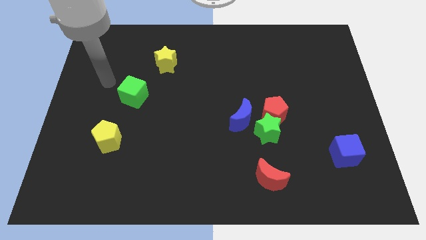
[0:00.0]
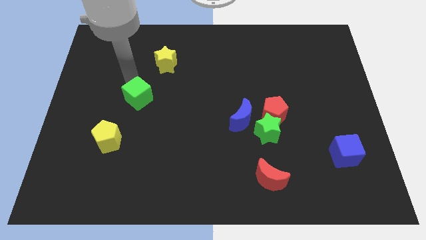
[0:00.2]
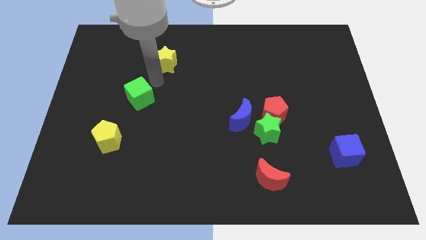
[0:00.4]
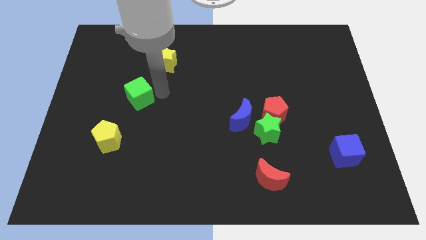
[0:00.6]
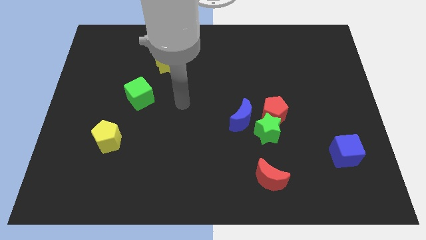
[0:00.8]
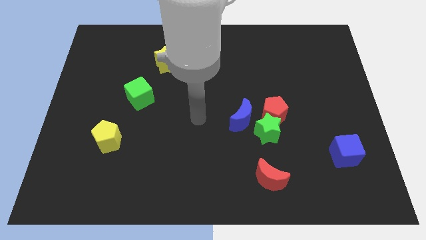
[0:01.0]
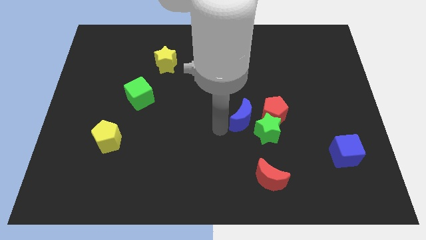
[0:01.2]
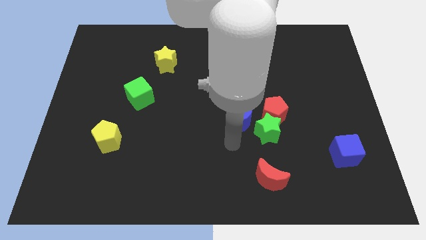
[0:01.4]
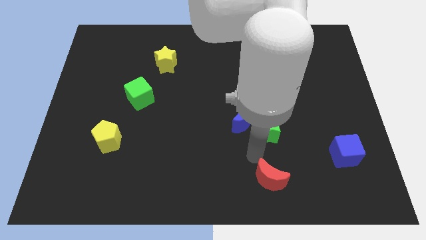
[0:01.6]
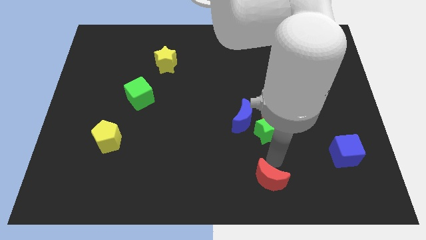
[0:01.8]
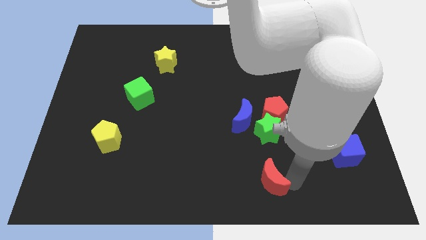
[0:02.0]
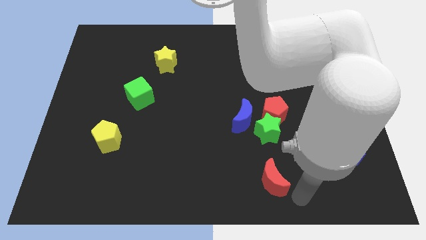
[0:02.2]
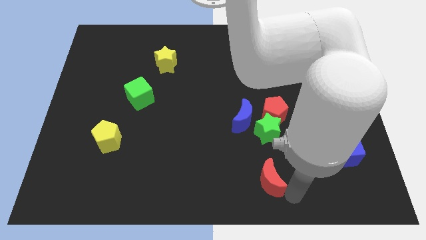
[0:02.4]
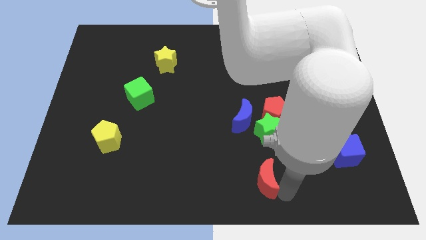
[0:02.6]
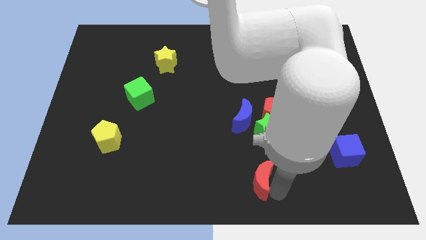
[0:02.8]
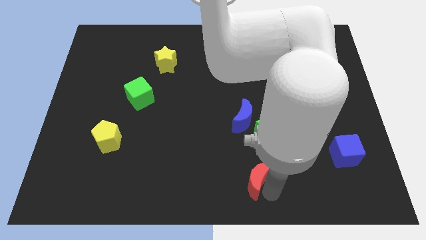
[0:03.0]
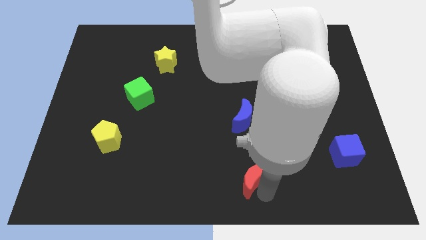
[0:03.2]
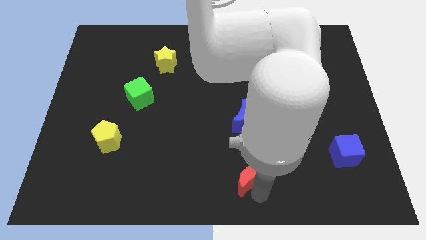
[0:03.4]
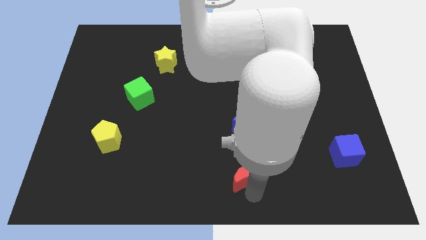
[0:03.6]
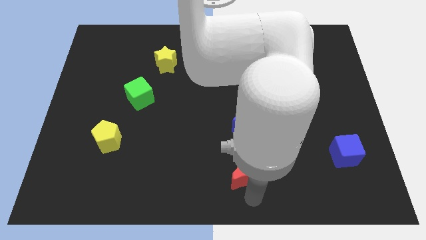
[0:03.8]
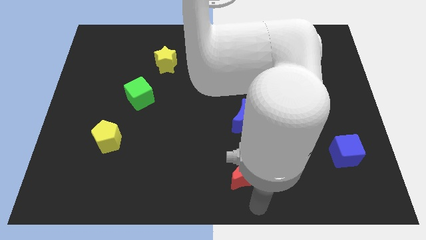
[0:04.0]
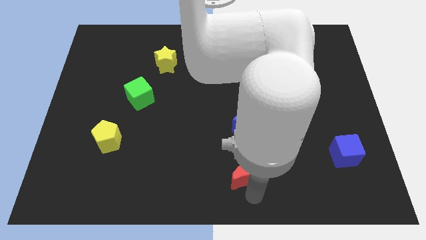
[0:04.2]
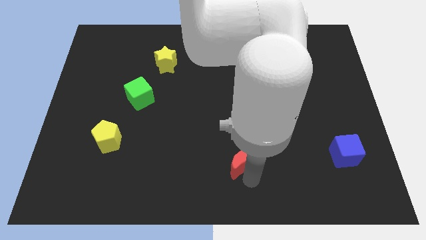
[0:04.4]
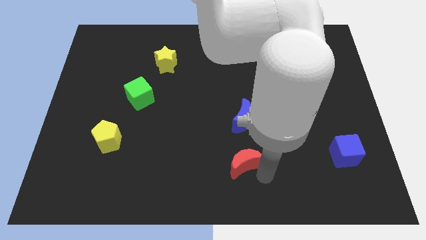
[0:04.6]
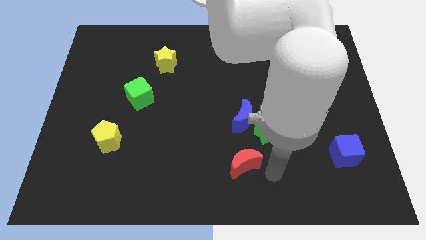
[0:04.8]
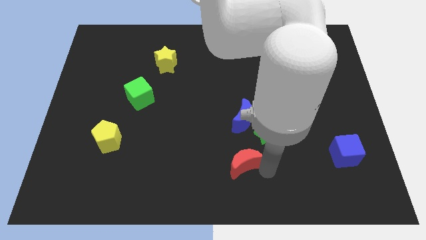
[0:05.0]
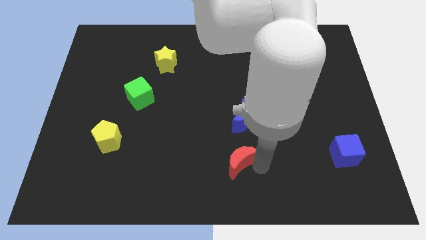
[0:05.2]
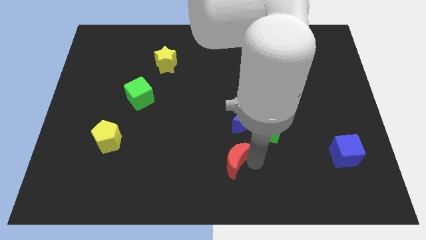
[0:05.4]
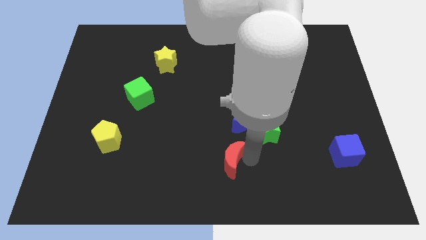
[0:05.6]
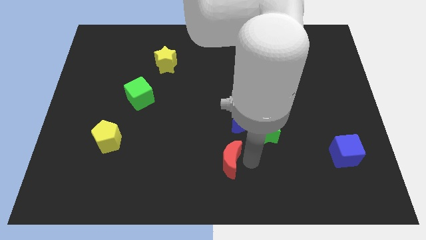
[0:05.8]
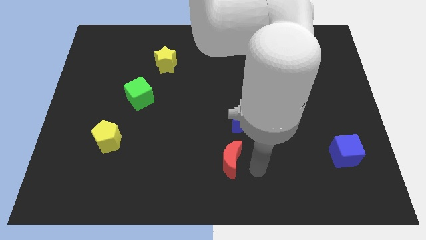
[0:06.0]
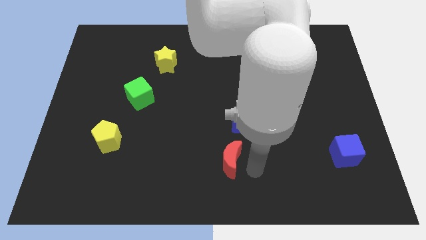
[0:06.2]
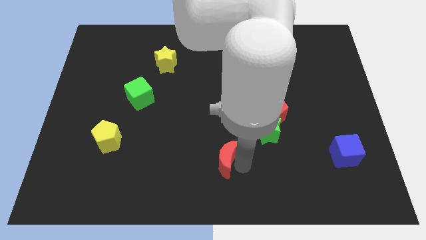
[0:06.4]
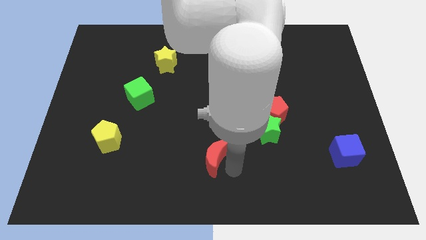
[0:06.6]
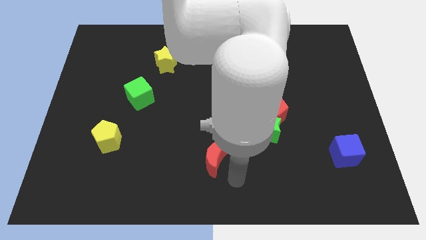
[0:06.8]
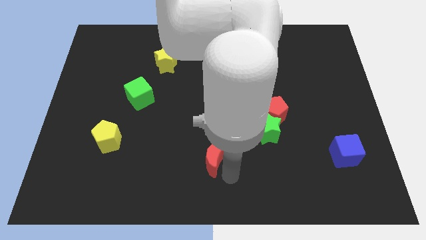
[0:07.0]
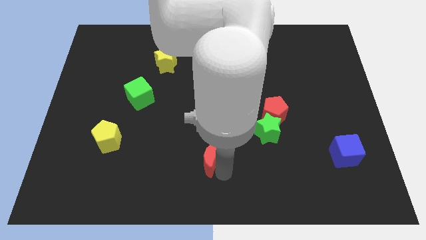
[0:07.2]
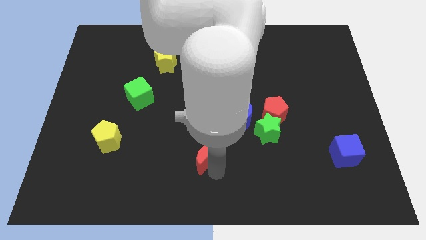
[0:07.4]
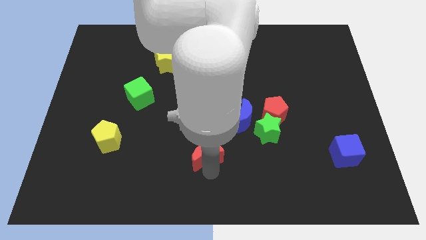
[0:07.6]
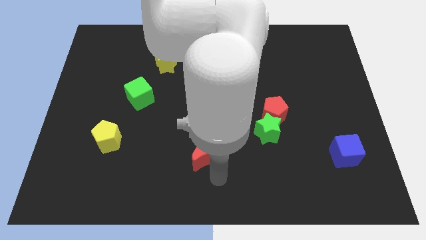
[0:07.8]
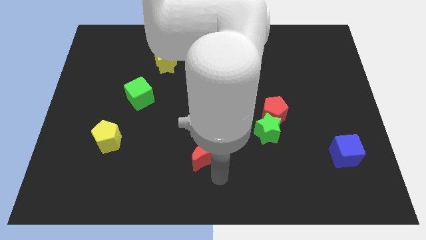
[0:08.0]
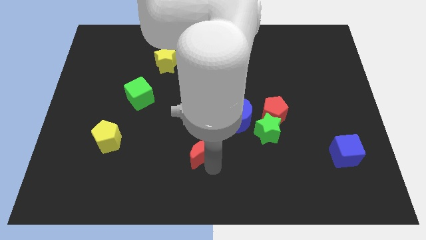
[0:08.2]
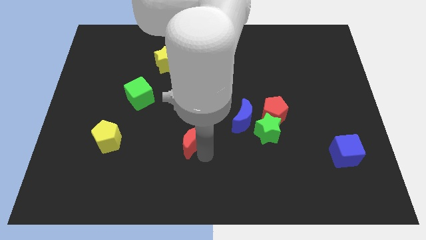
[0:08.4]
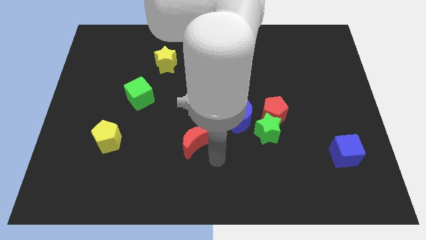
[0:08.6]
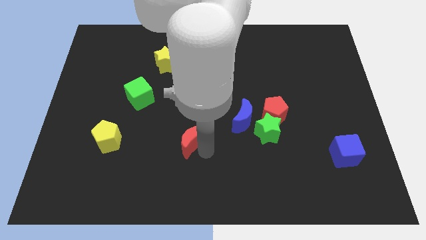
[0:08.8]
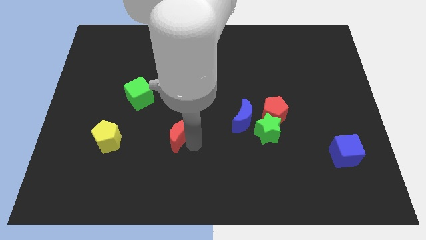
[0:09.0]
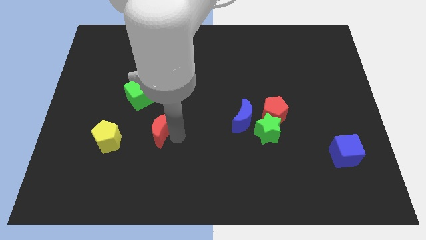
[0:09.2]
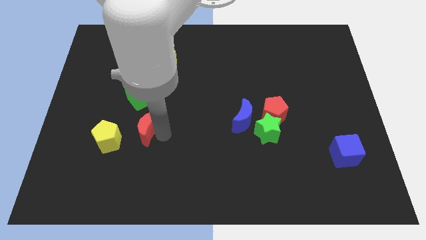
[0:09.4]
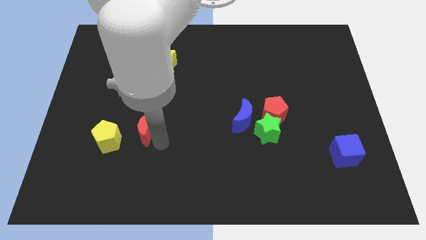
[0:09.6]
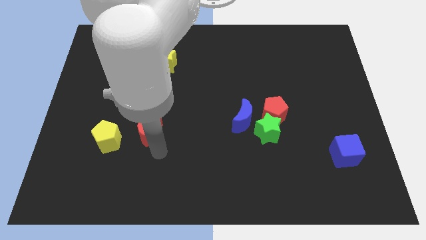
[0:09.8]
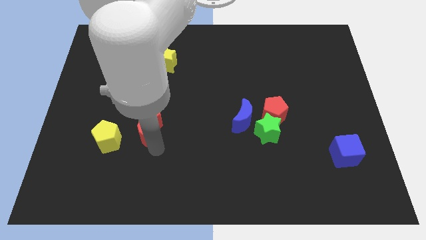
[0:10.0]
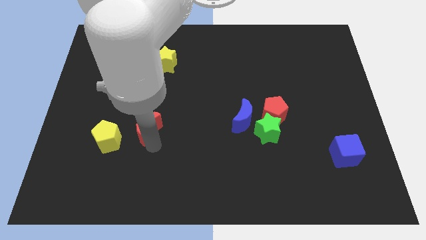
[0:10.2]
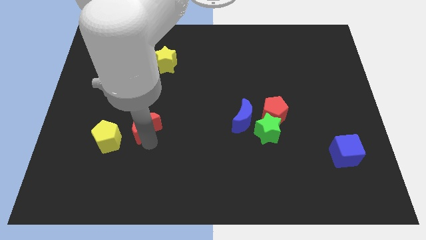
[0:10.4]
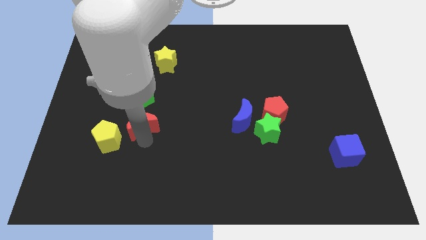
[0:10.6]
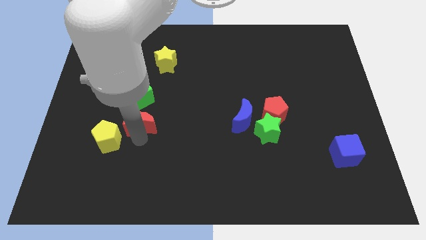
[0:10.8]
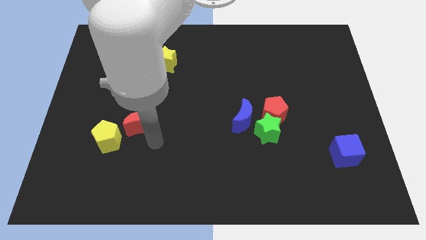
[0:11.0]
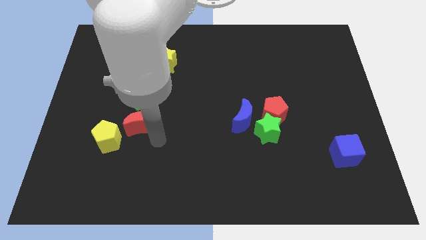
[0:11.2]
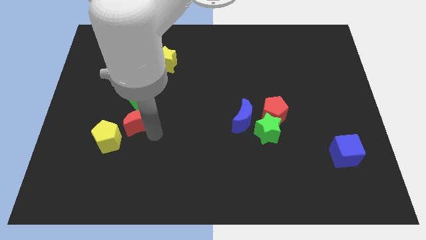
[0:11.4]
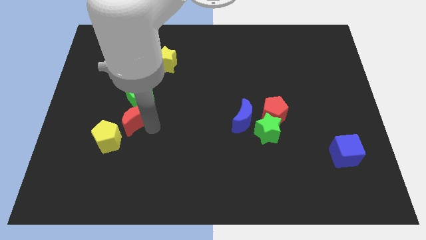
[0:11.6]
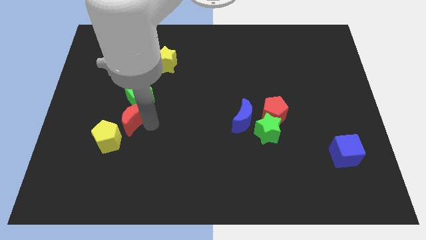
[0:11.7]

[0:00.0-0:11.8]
move the red moon to the top side of the yellow pentagon

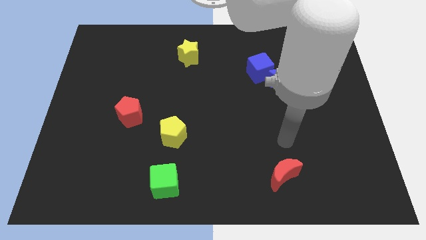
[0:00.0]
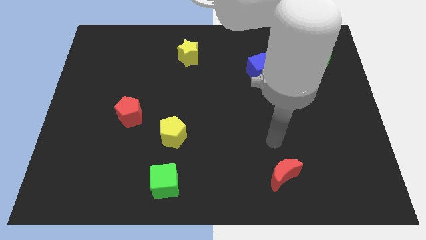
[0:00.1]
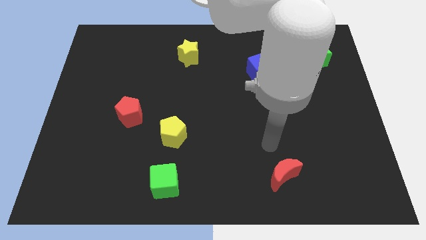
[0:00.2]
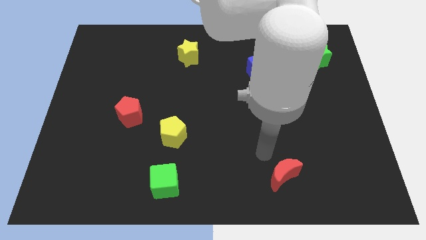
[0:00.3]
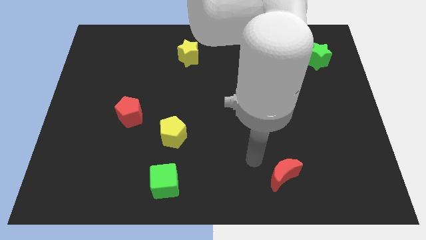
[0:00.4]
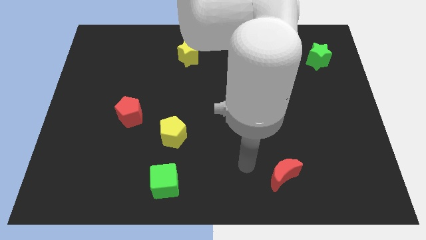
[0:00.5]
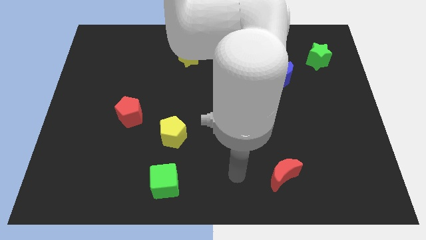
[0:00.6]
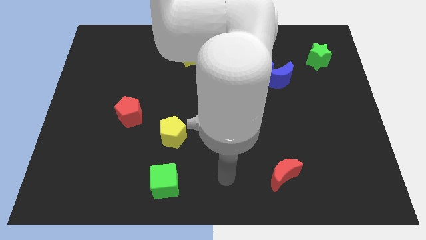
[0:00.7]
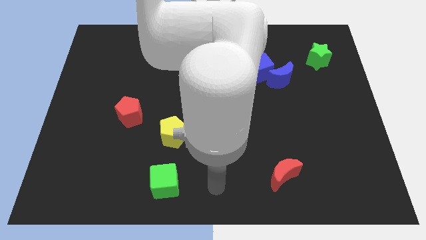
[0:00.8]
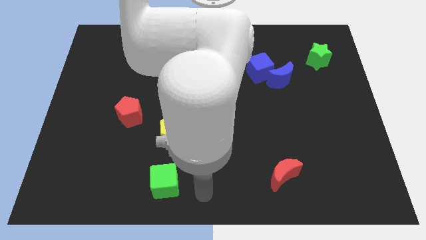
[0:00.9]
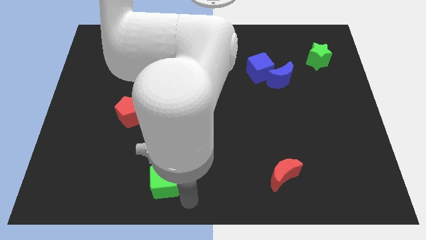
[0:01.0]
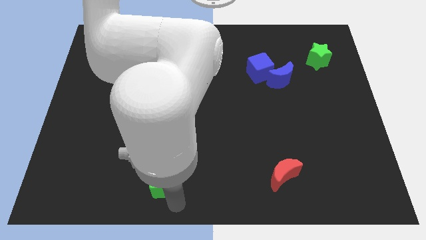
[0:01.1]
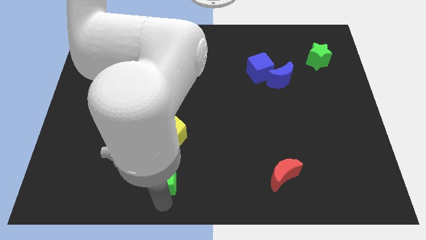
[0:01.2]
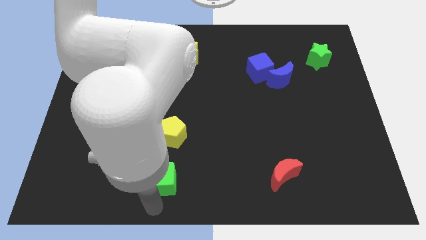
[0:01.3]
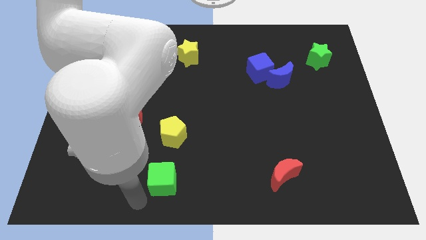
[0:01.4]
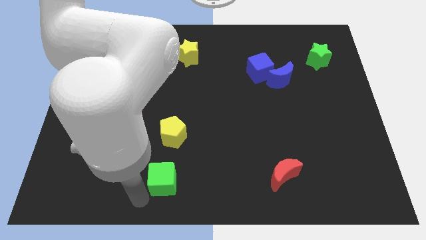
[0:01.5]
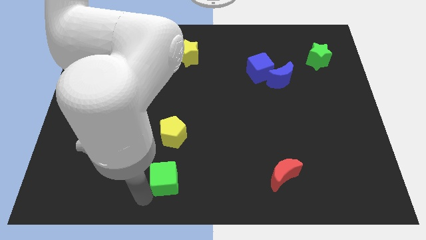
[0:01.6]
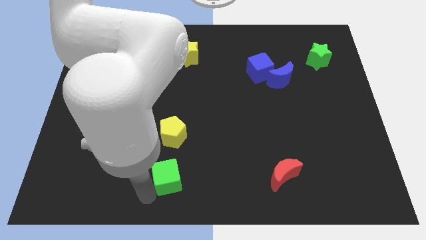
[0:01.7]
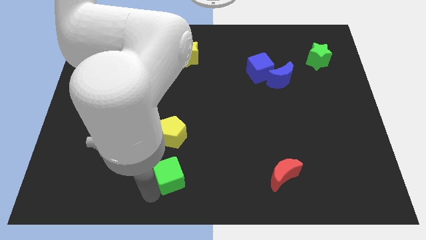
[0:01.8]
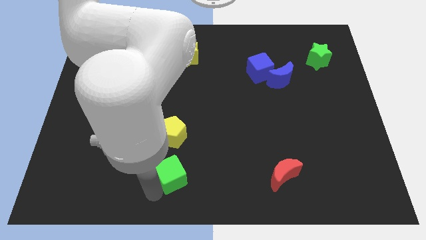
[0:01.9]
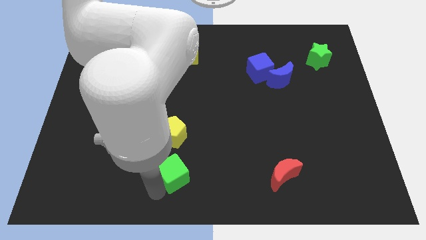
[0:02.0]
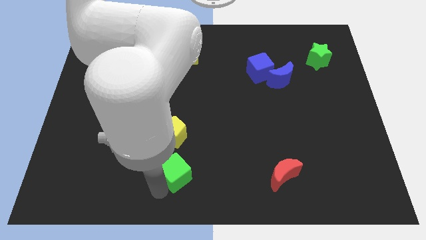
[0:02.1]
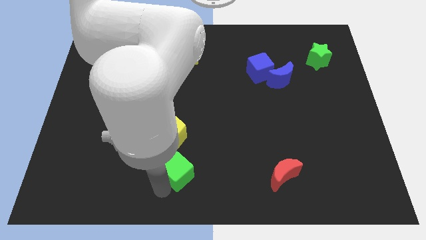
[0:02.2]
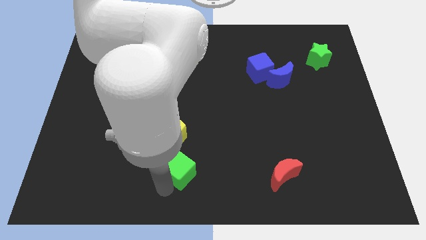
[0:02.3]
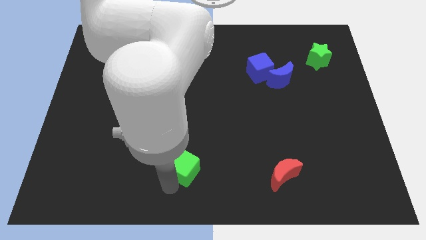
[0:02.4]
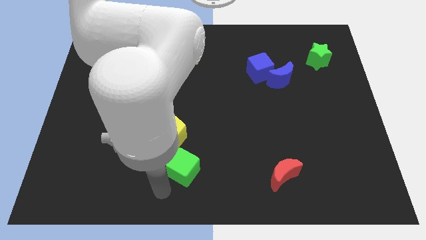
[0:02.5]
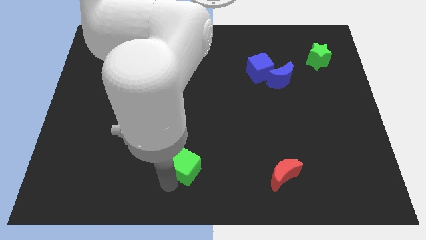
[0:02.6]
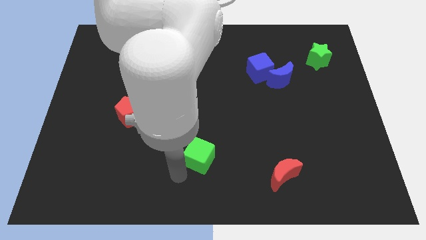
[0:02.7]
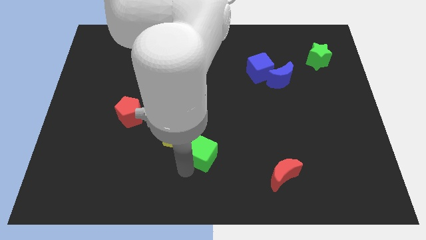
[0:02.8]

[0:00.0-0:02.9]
move the green cube right of the yellow pentagon
